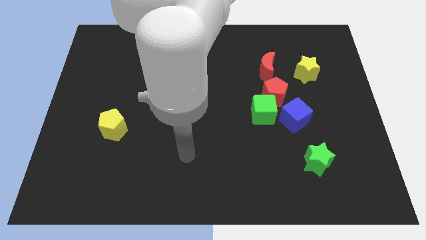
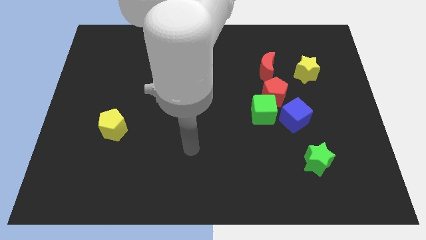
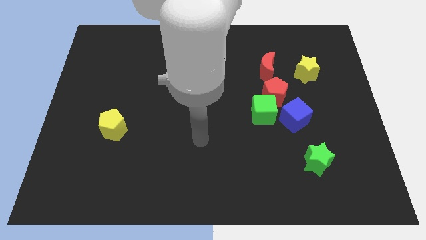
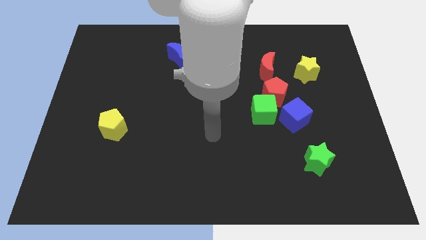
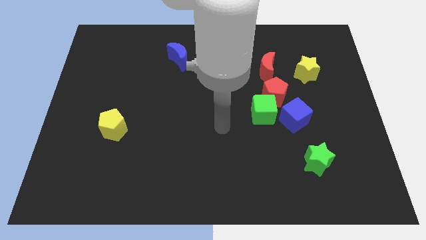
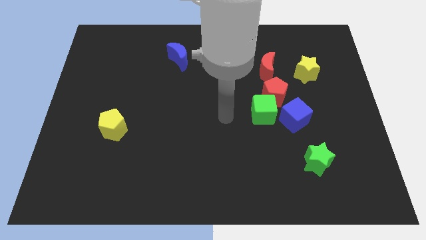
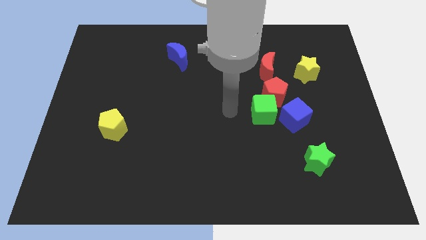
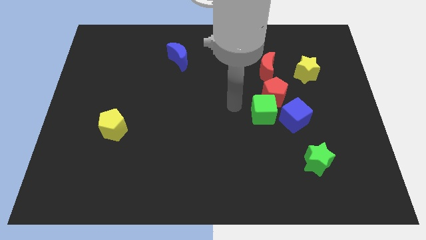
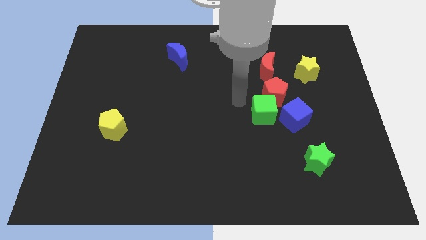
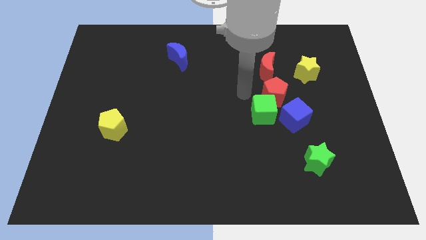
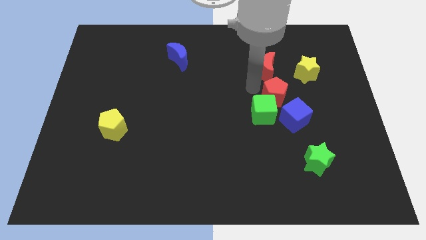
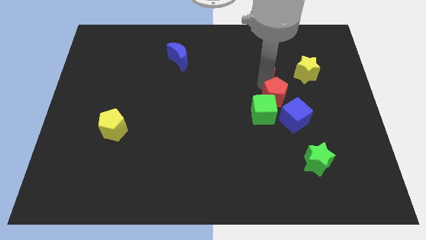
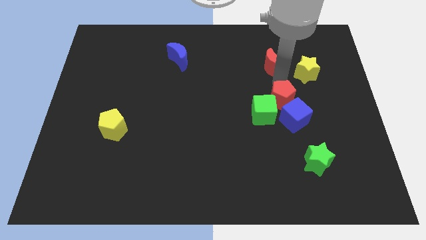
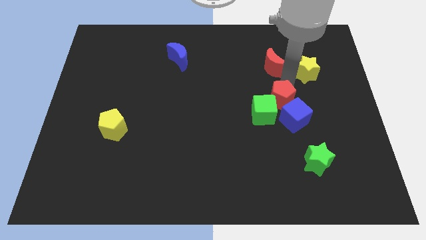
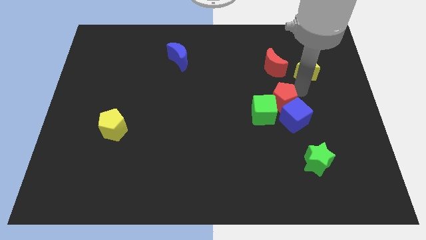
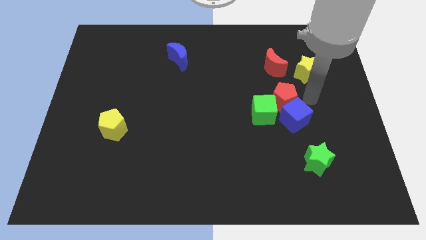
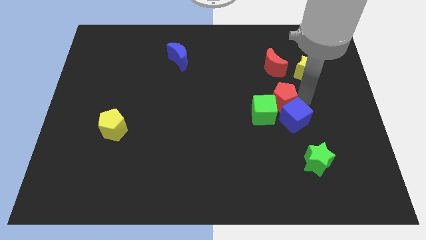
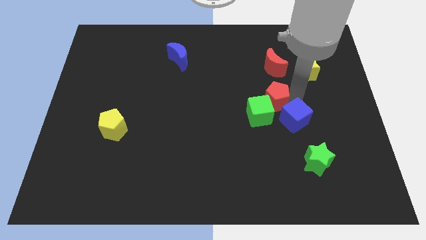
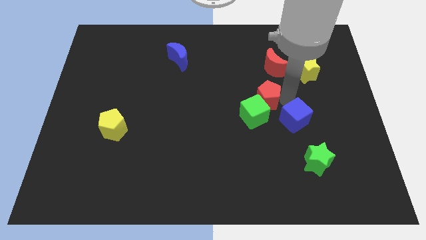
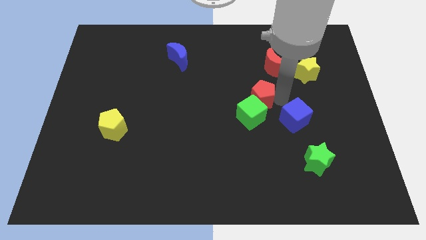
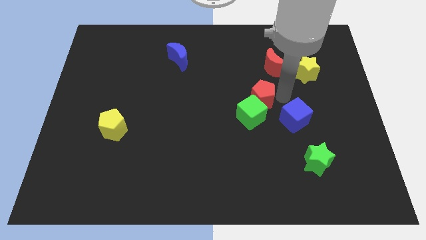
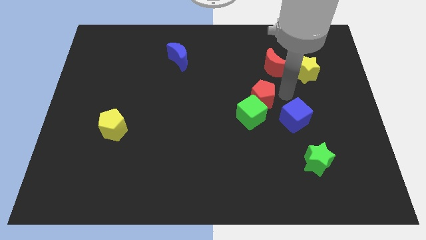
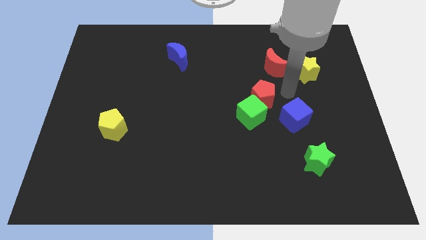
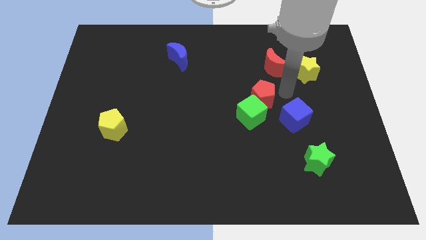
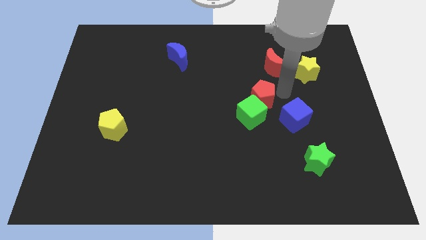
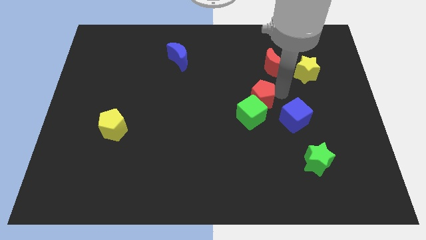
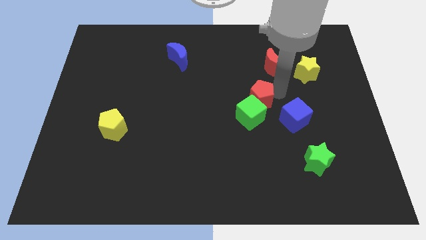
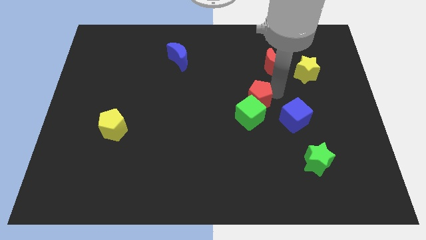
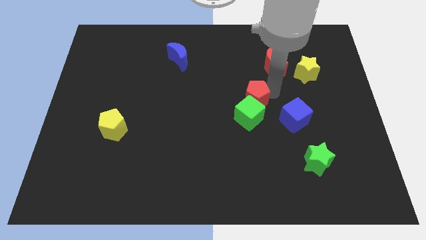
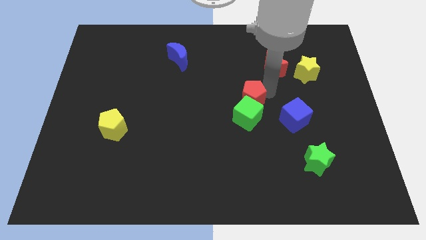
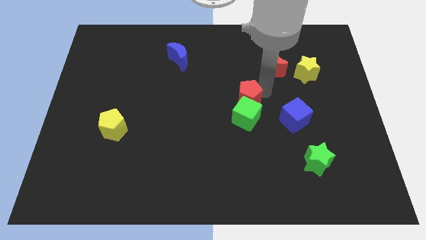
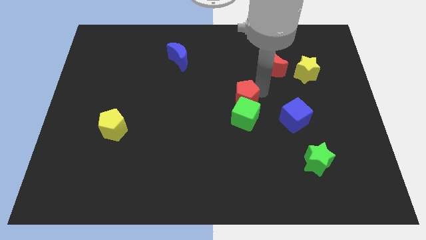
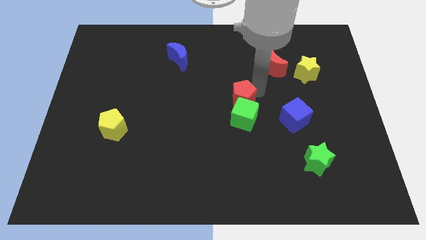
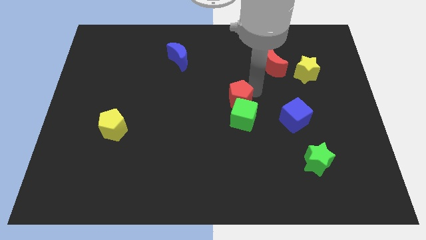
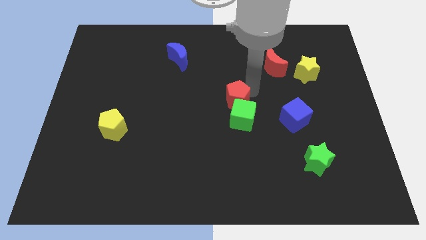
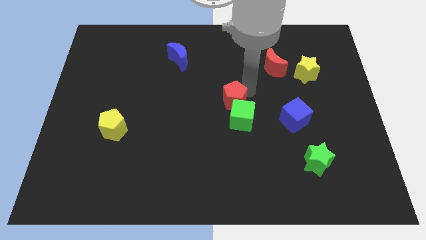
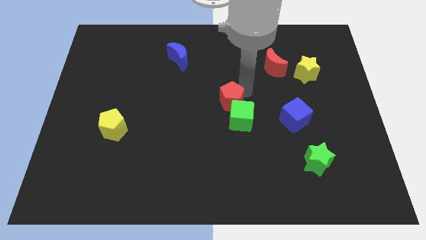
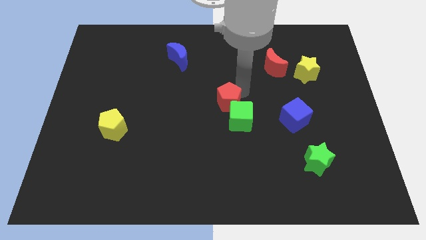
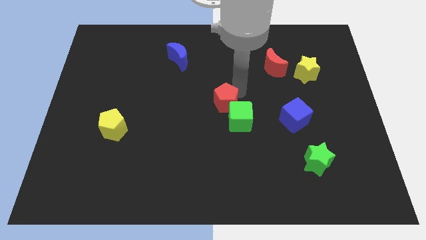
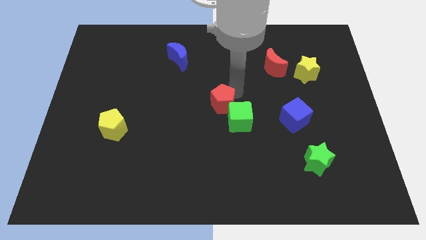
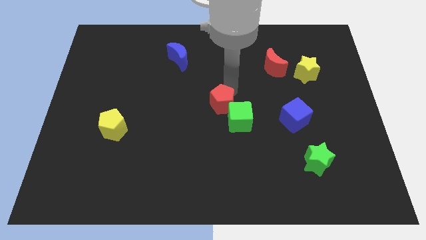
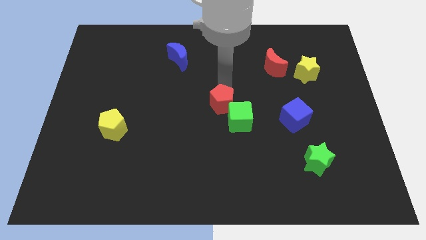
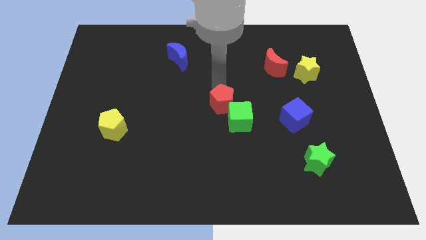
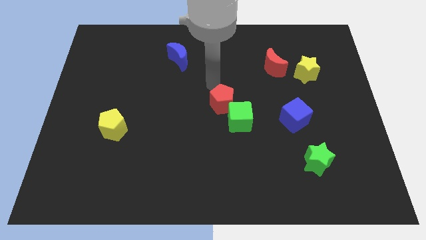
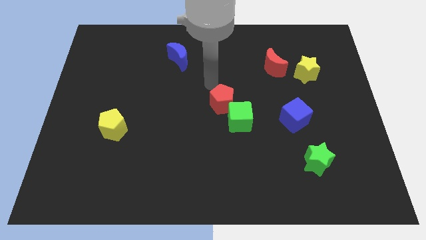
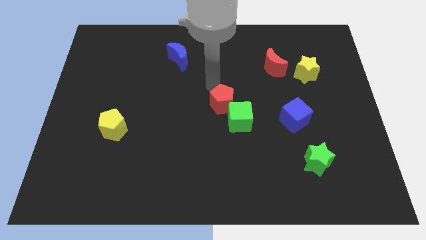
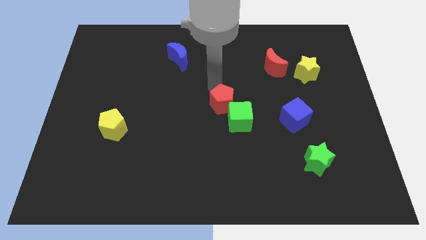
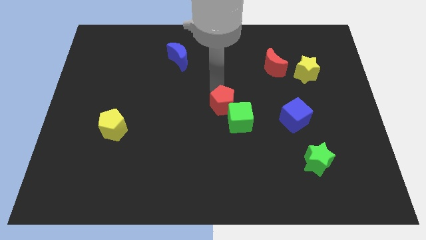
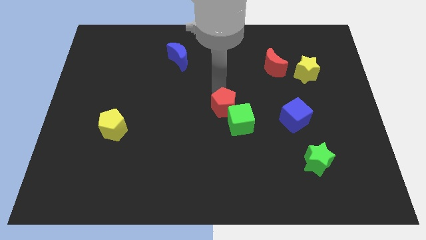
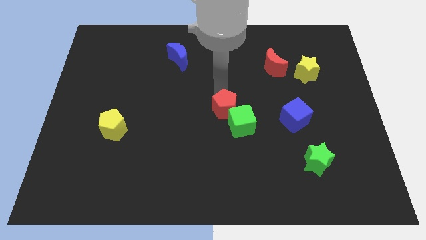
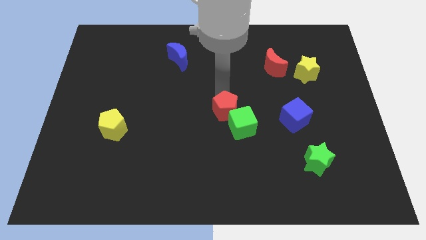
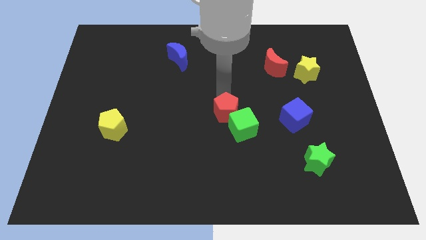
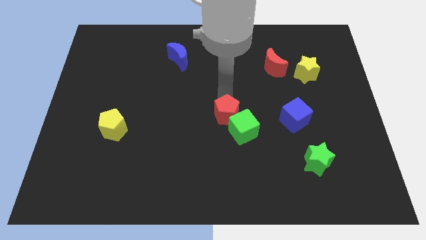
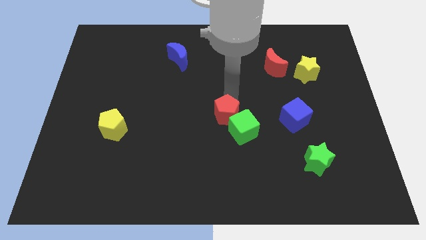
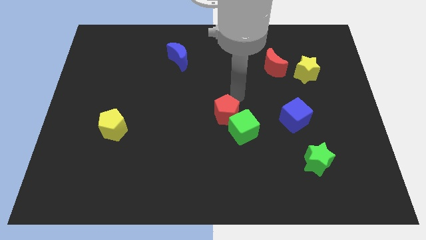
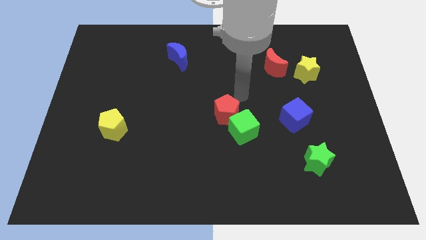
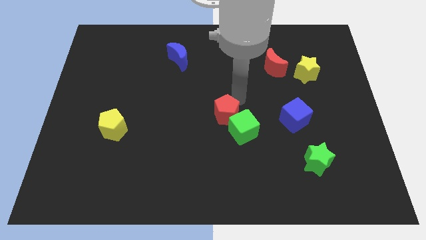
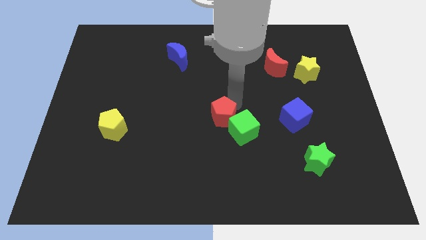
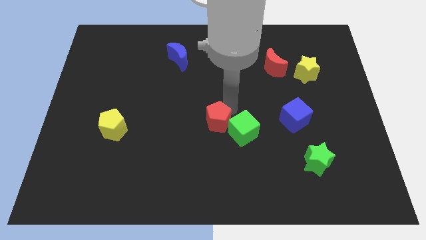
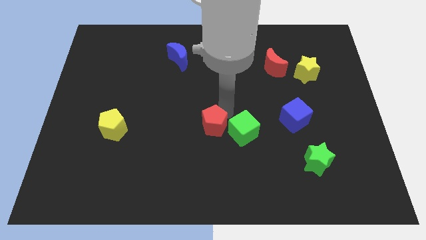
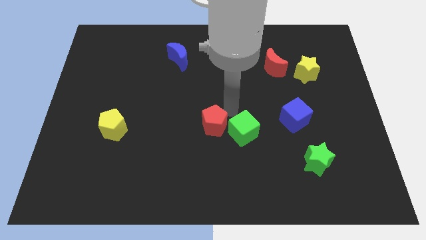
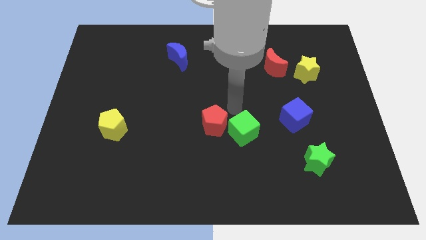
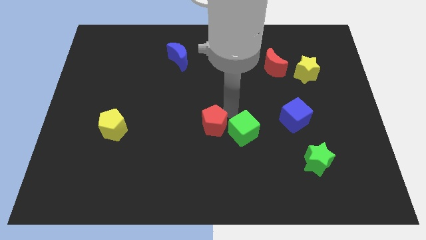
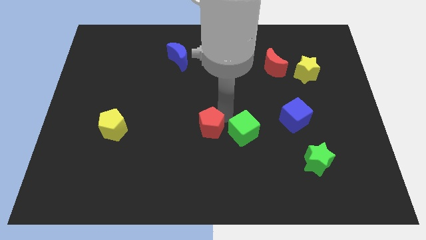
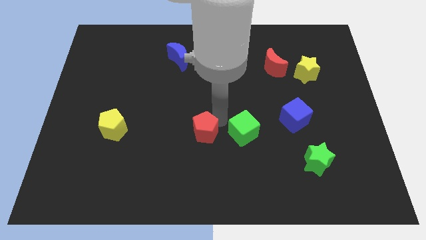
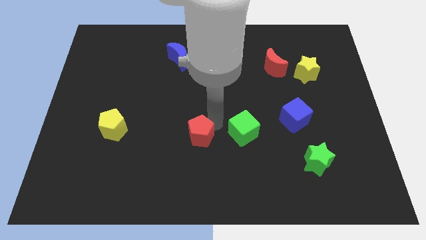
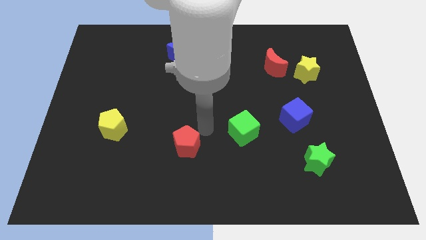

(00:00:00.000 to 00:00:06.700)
push the red pentagon downwards and then left

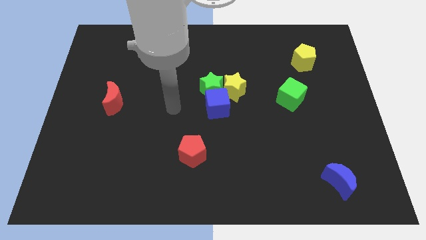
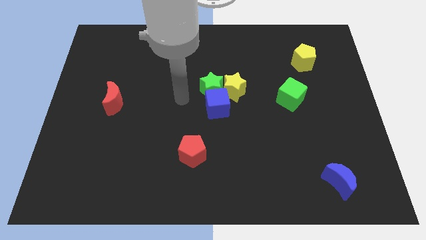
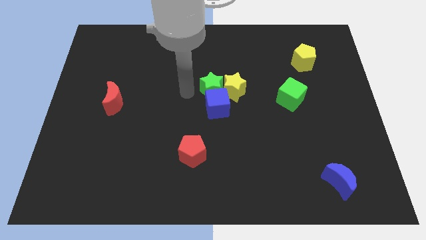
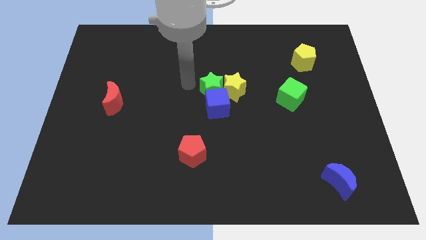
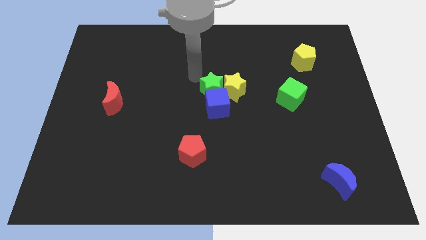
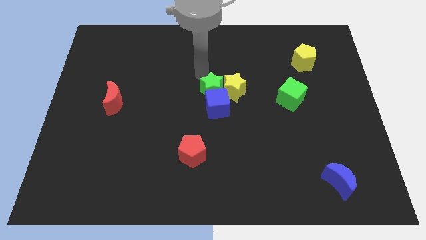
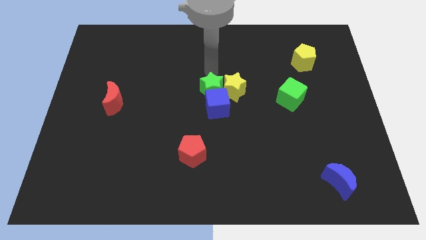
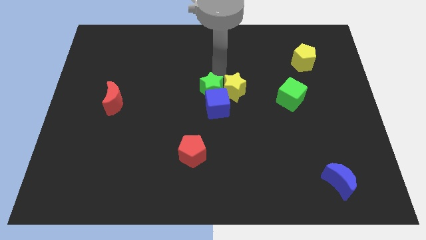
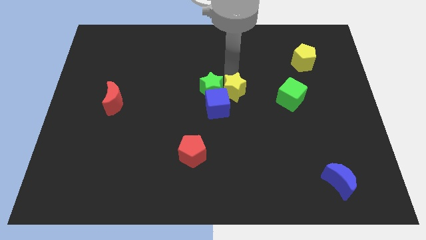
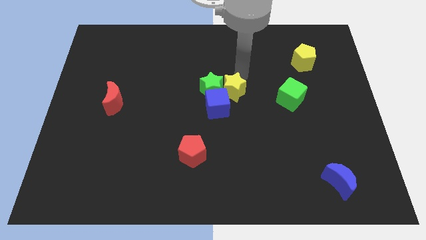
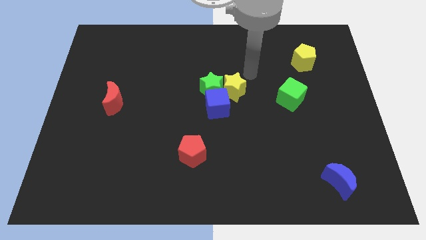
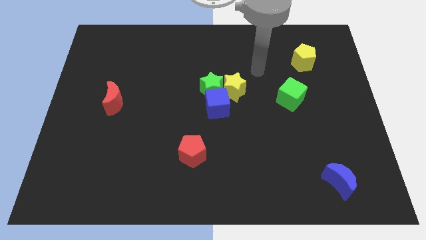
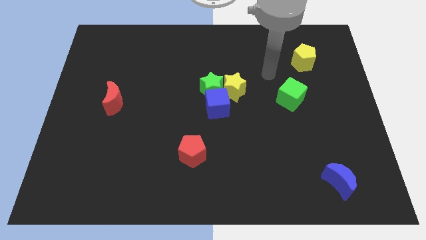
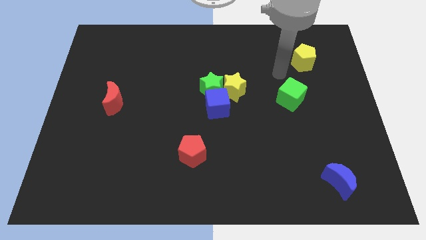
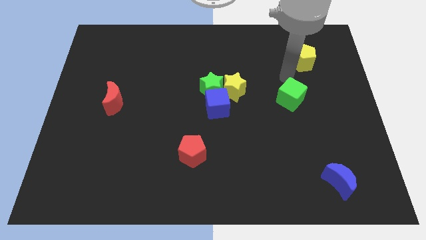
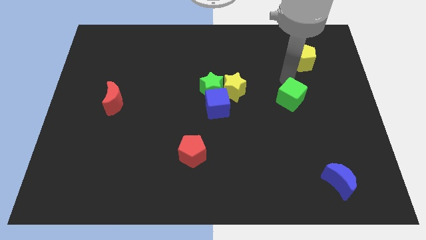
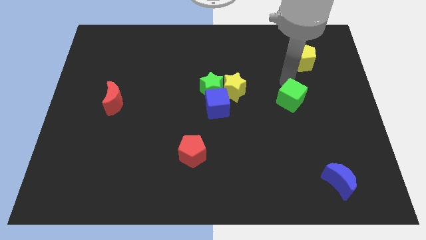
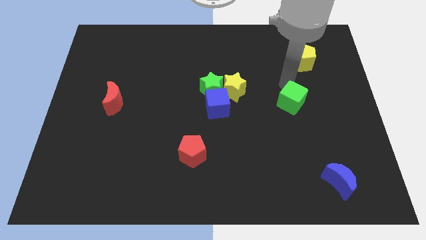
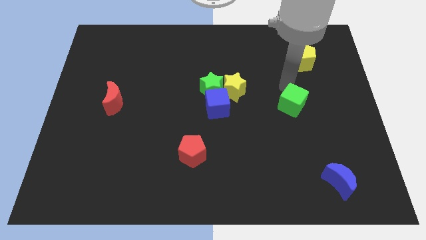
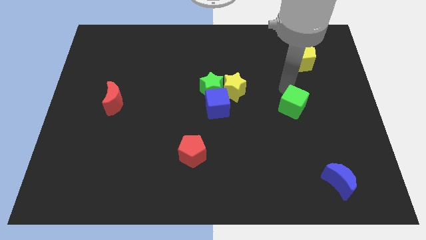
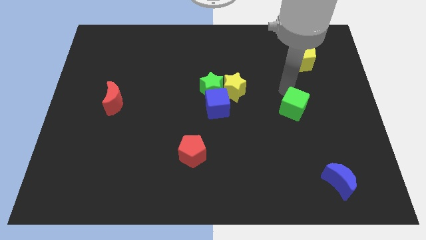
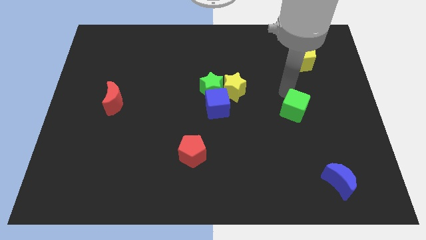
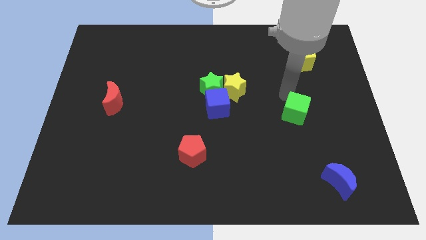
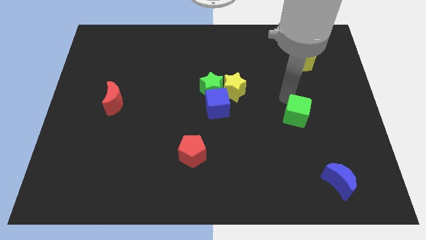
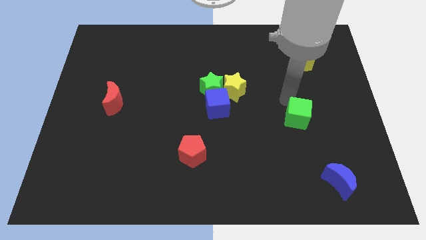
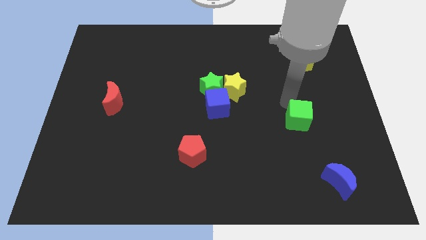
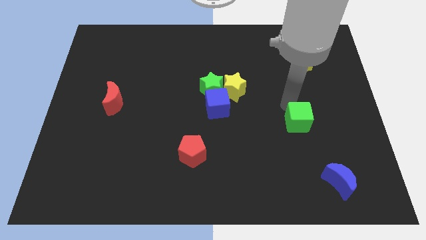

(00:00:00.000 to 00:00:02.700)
slide the green cube downwards somewhat
